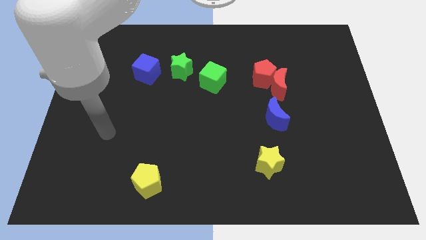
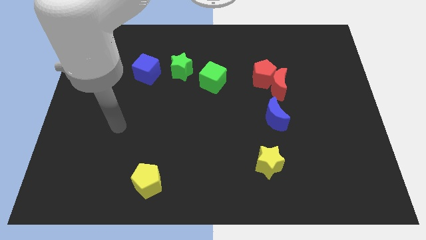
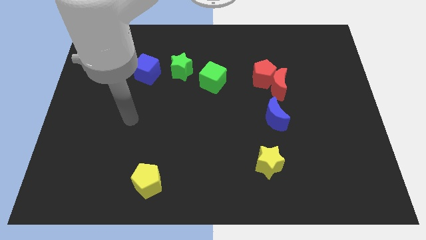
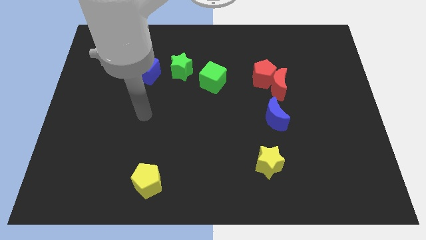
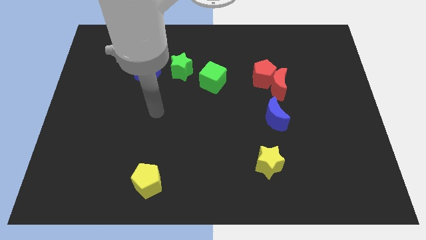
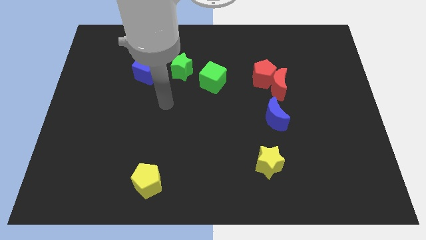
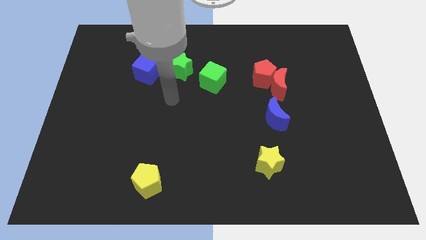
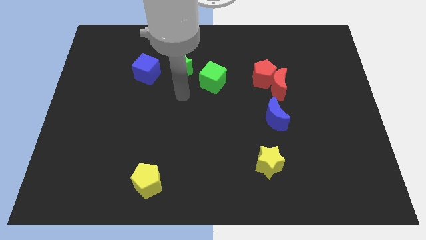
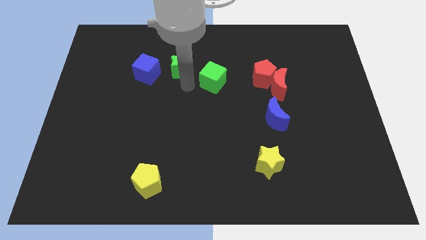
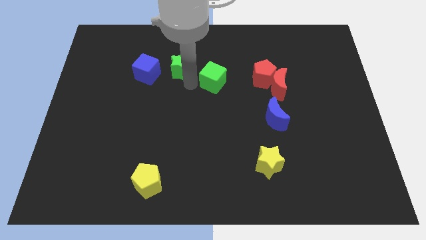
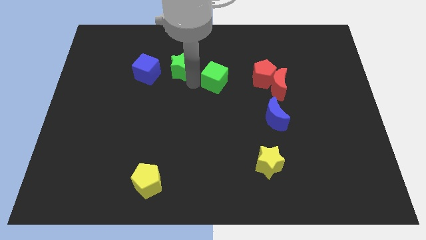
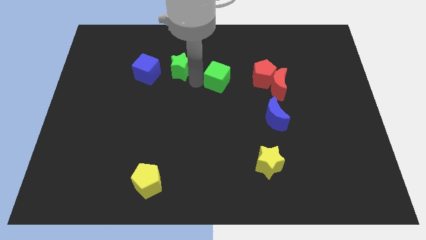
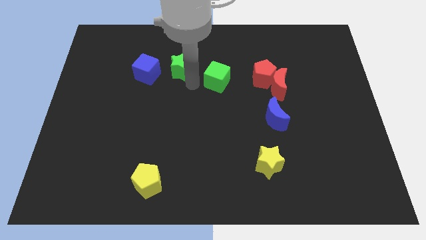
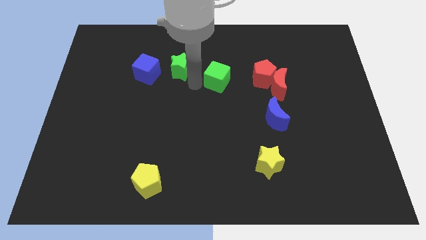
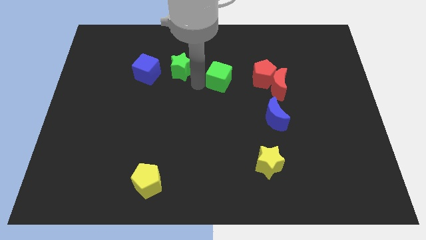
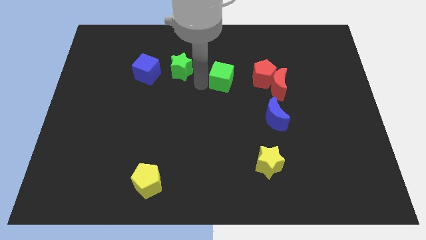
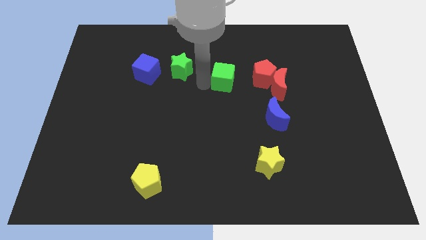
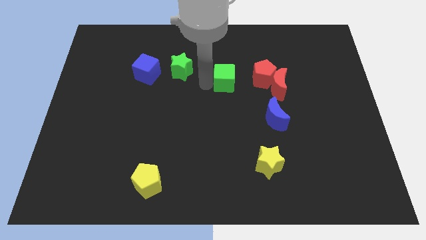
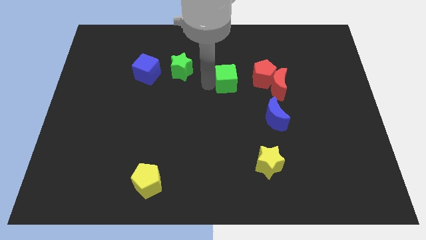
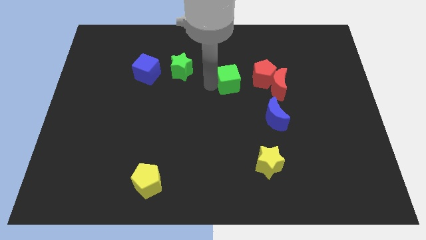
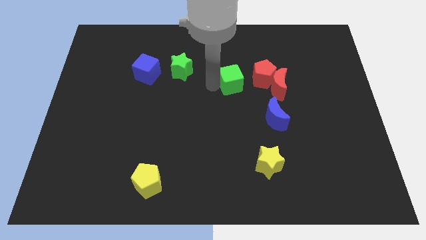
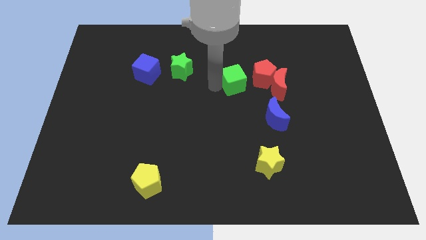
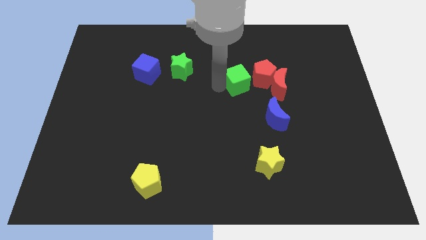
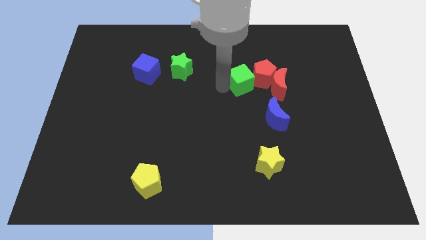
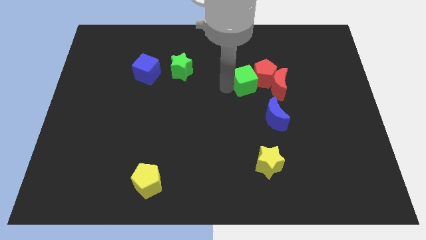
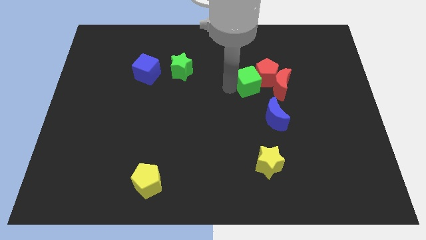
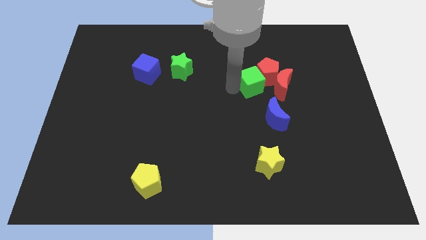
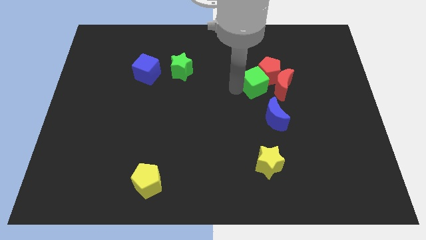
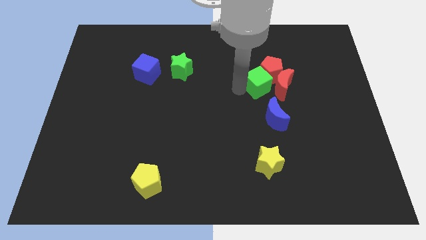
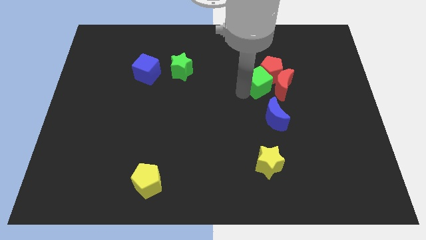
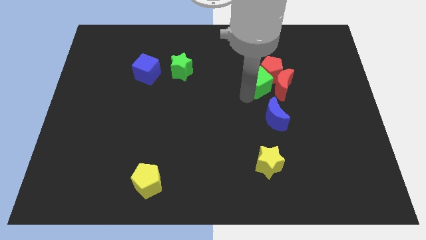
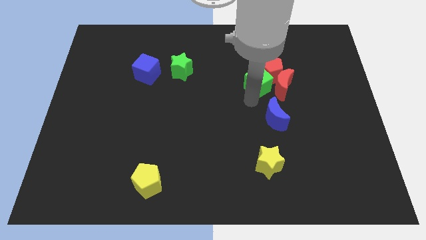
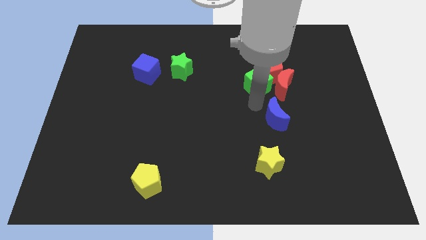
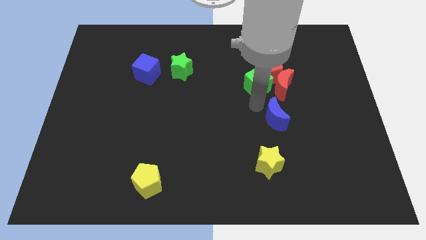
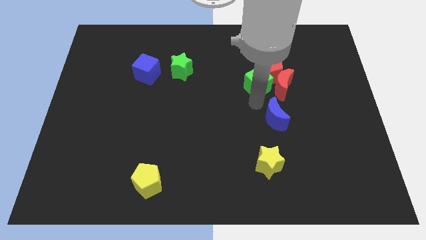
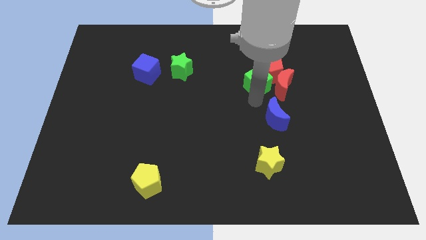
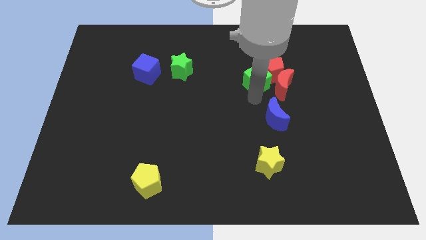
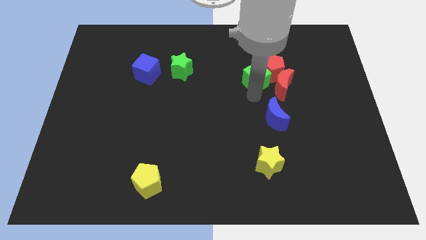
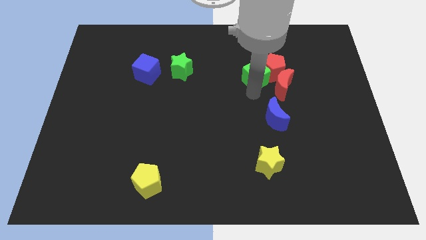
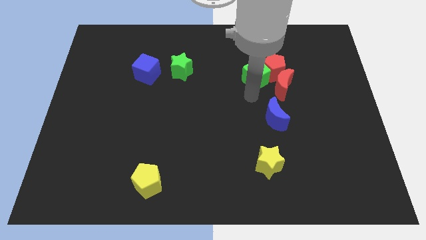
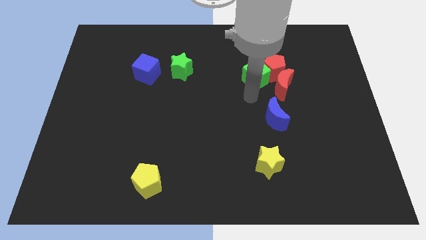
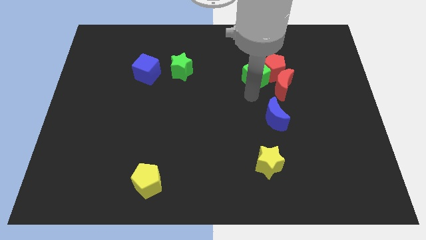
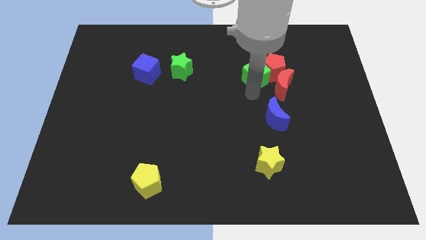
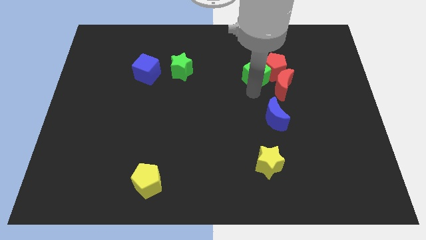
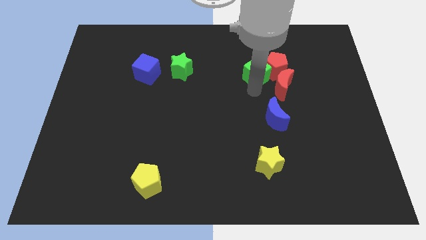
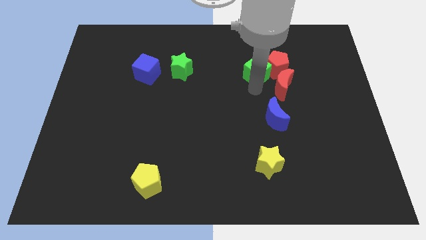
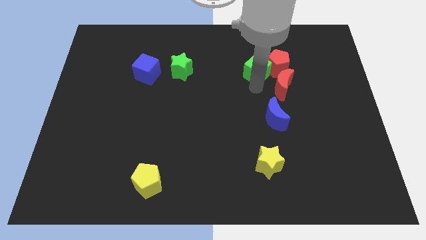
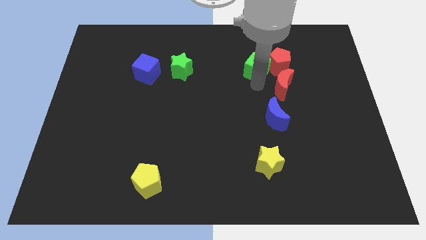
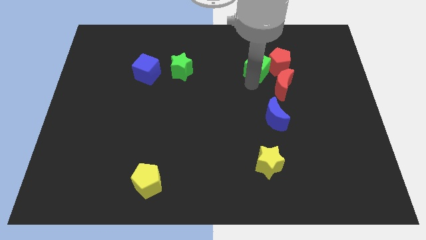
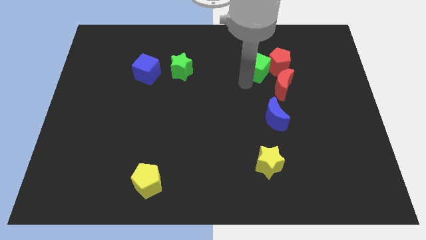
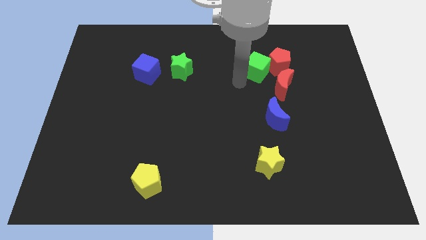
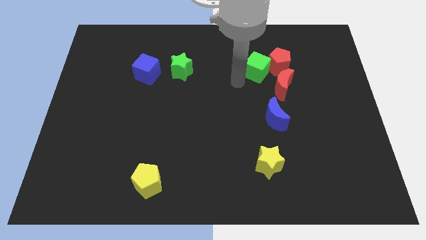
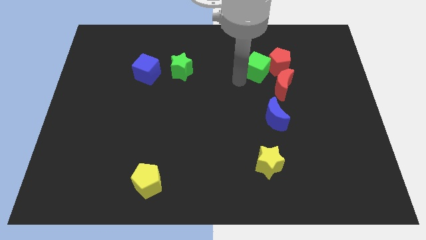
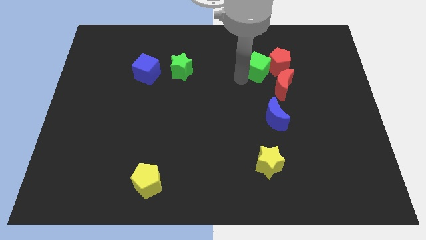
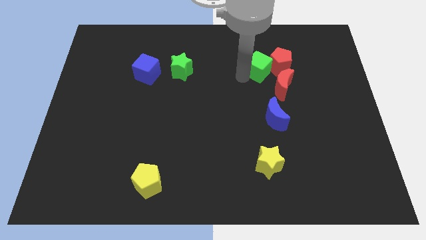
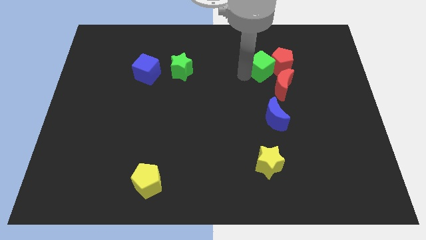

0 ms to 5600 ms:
put the green cube to the top of the red moon

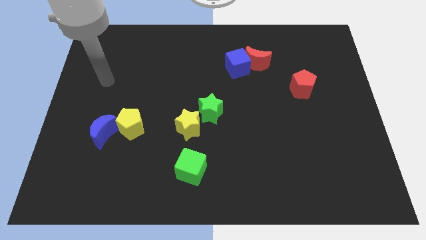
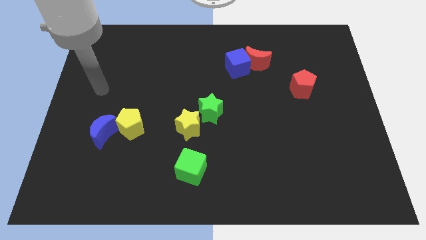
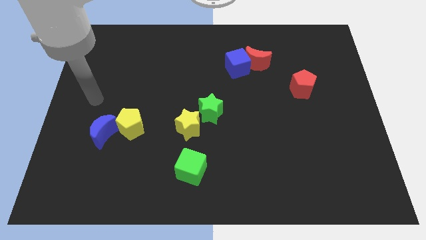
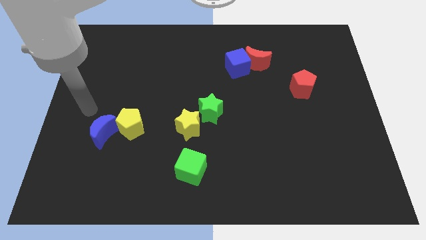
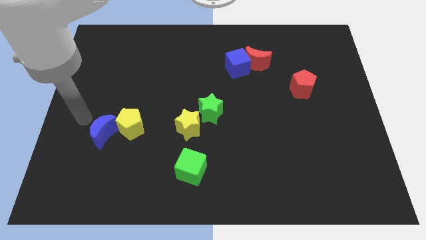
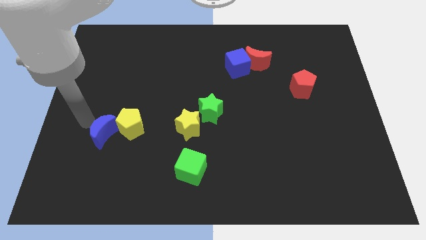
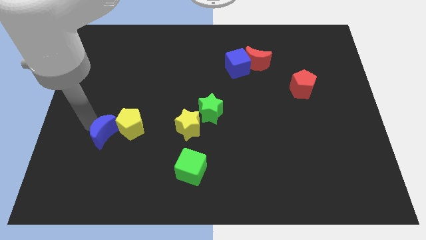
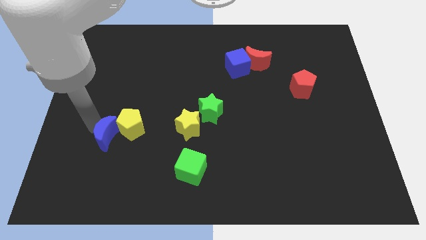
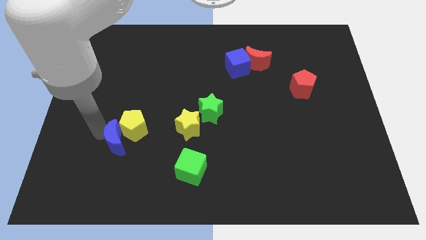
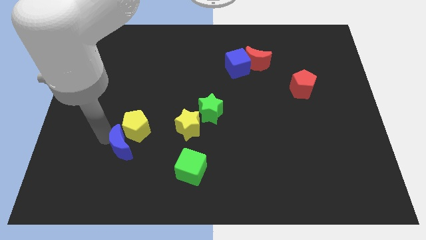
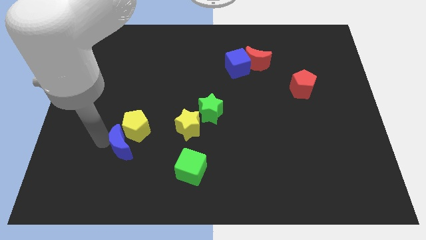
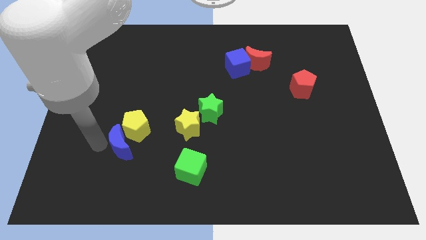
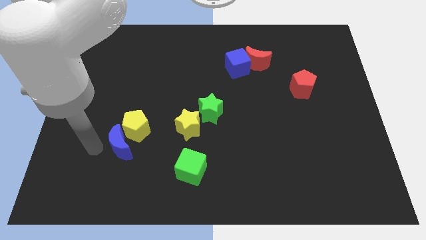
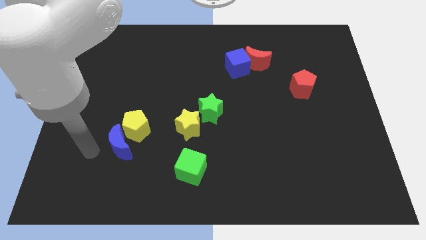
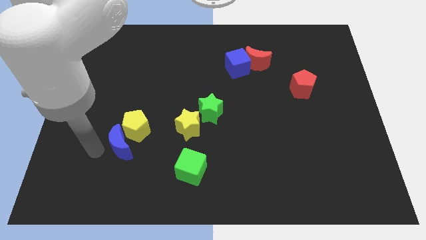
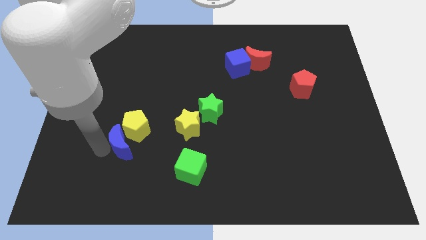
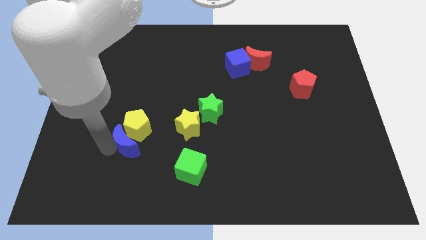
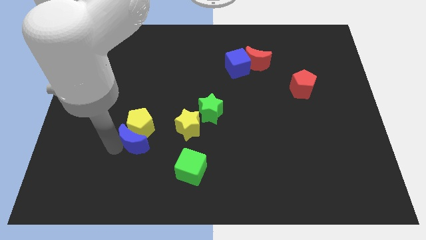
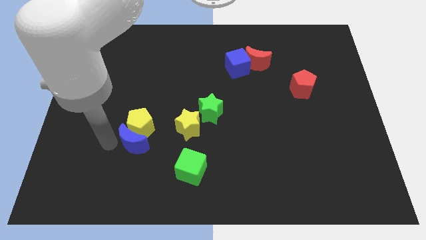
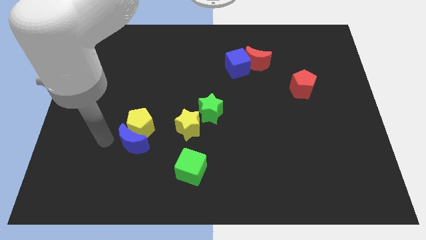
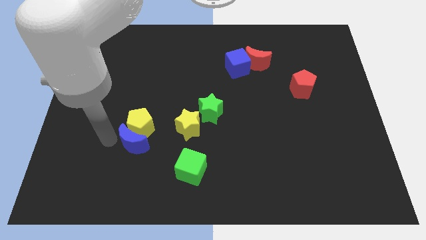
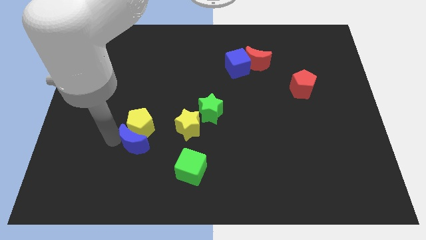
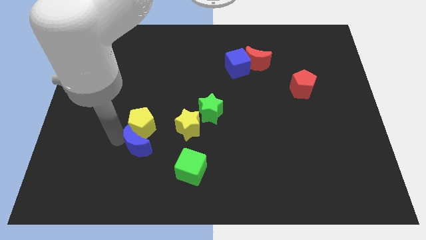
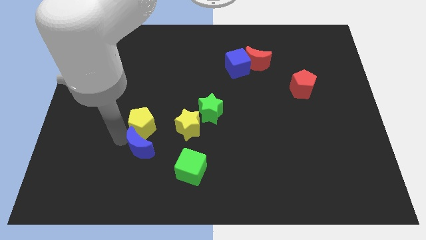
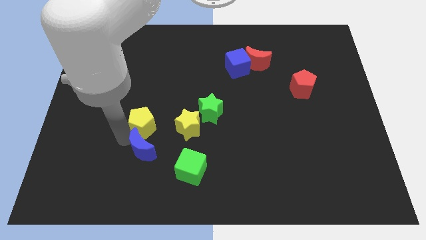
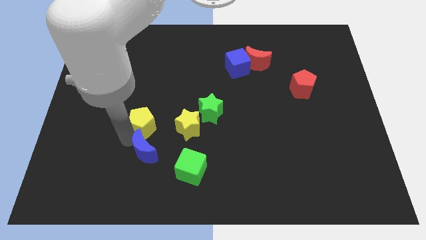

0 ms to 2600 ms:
push the blue moon diagonally up and to the left of the green cube
